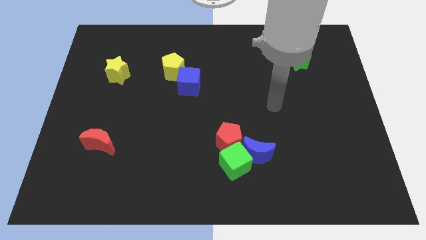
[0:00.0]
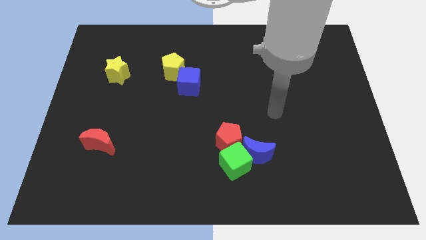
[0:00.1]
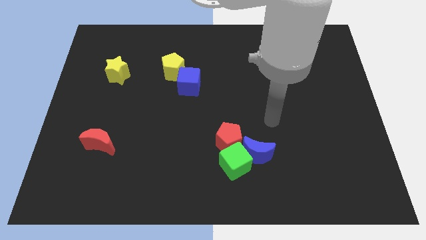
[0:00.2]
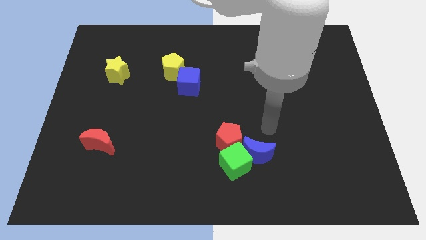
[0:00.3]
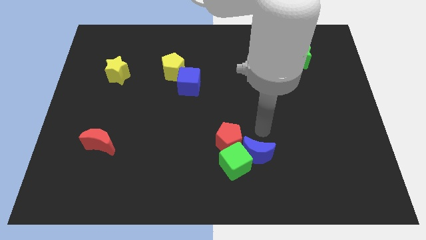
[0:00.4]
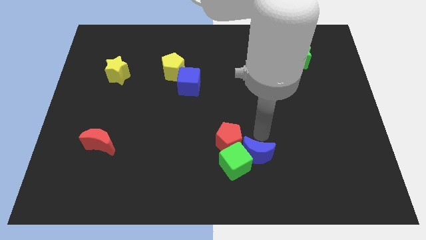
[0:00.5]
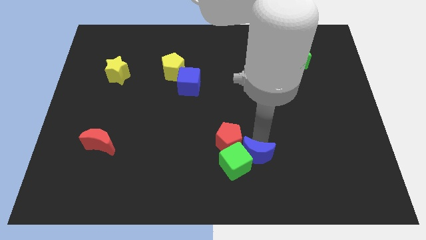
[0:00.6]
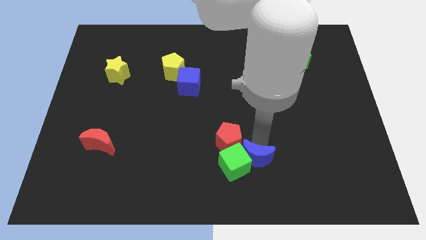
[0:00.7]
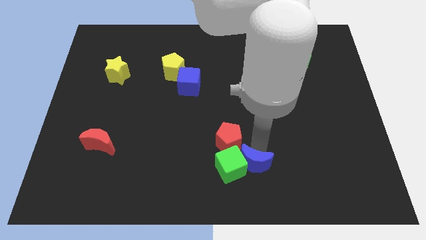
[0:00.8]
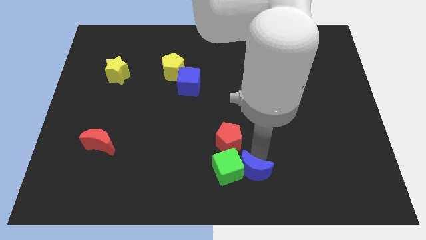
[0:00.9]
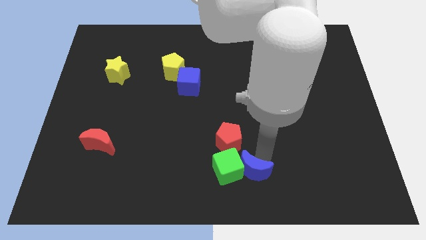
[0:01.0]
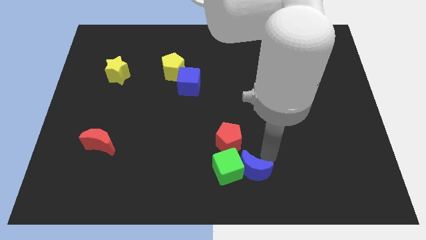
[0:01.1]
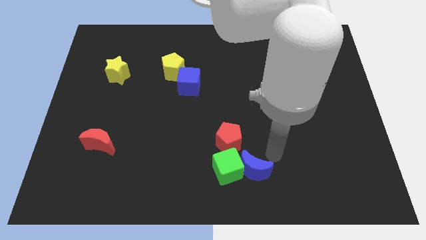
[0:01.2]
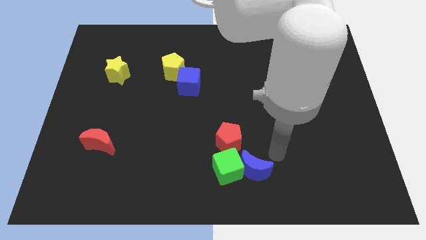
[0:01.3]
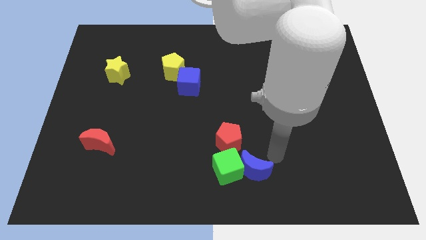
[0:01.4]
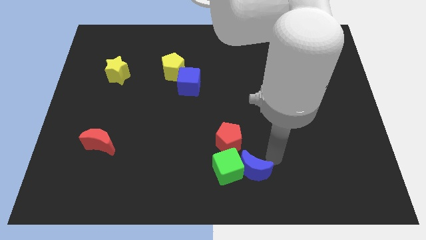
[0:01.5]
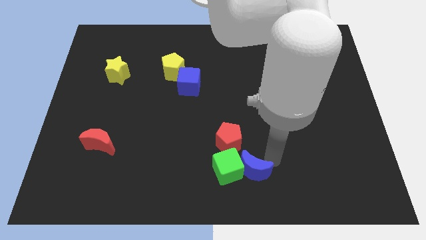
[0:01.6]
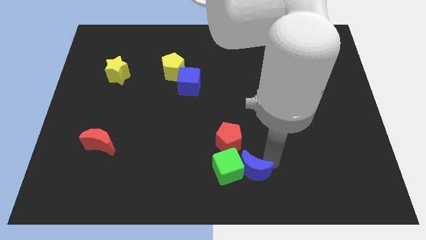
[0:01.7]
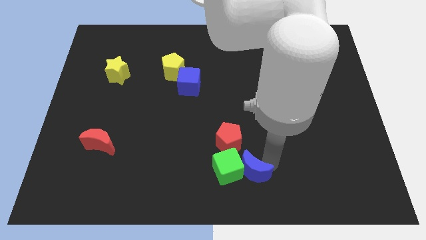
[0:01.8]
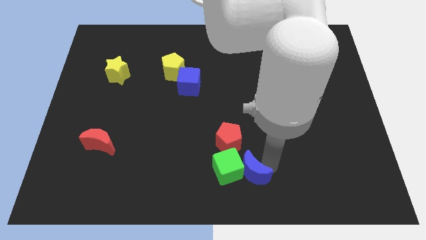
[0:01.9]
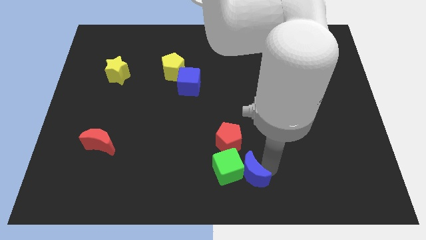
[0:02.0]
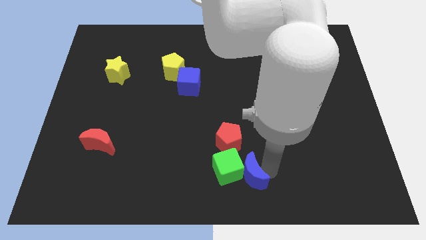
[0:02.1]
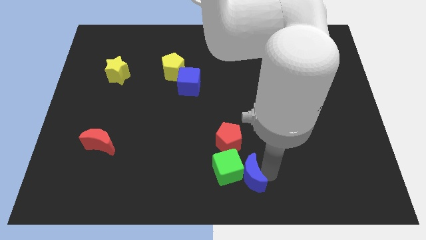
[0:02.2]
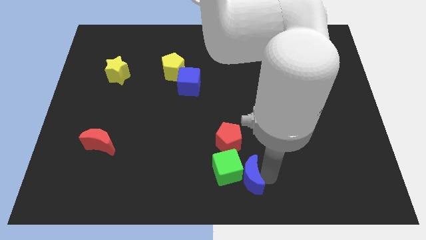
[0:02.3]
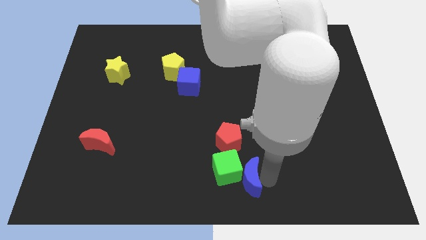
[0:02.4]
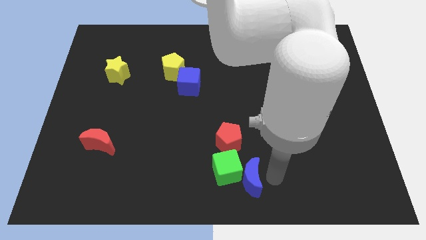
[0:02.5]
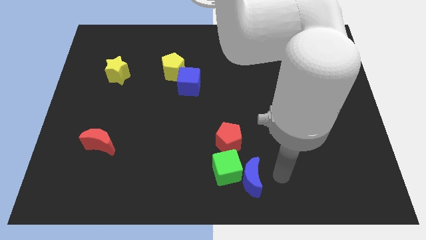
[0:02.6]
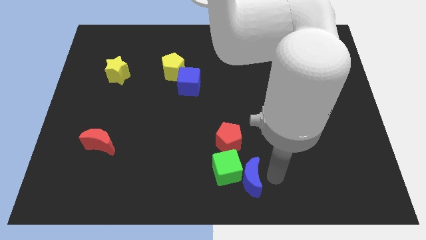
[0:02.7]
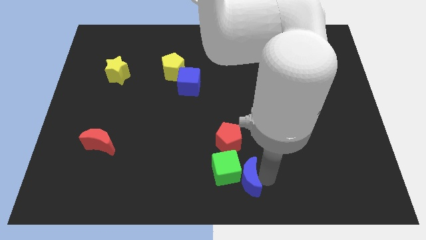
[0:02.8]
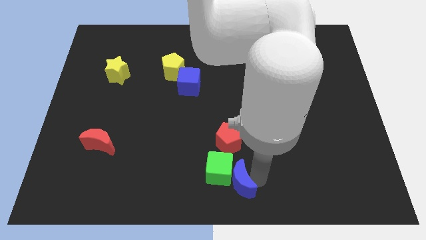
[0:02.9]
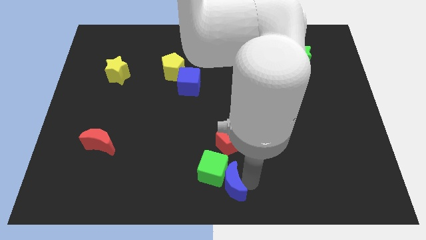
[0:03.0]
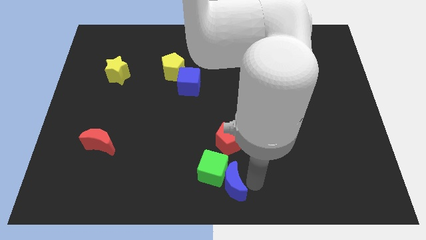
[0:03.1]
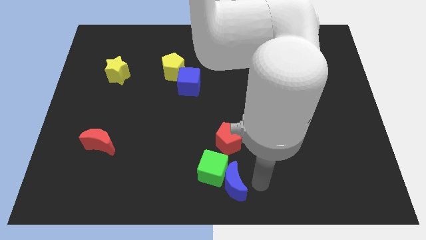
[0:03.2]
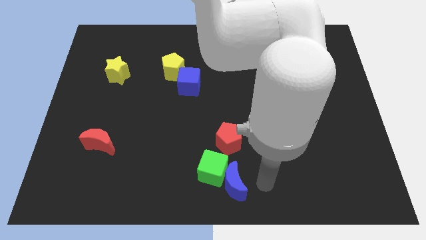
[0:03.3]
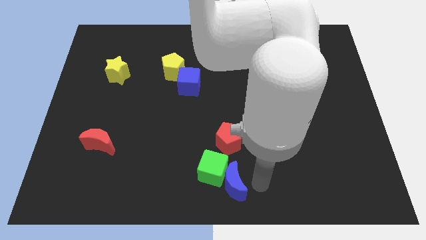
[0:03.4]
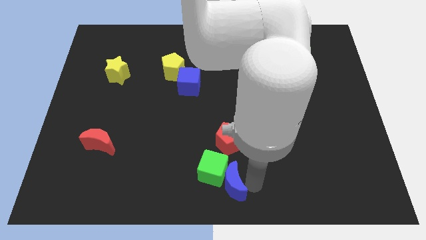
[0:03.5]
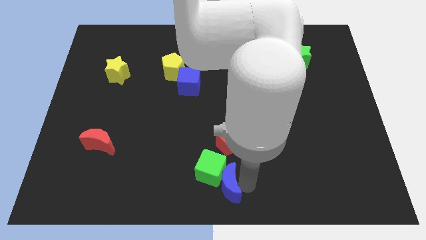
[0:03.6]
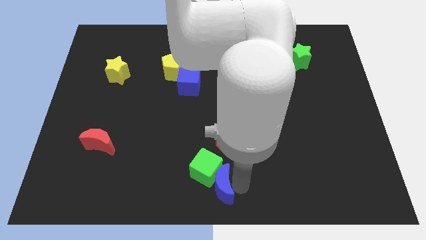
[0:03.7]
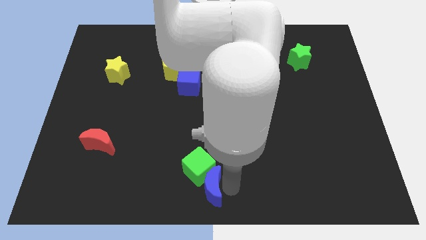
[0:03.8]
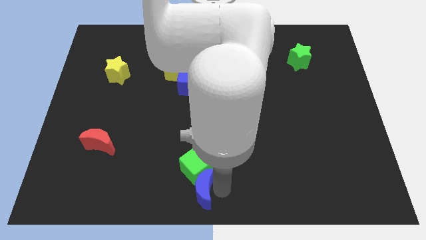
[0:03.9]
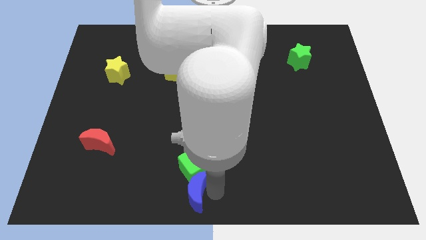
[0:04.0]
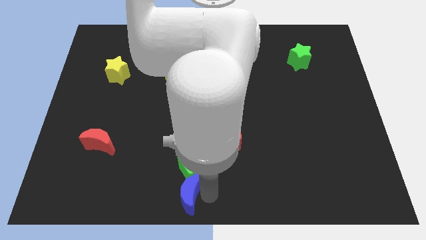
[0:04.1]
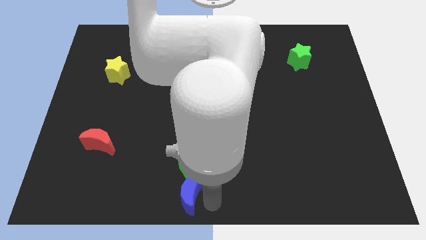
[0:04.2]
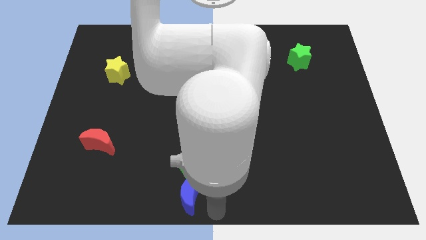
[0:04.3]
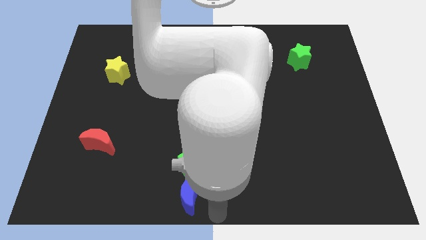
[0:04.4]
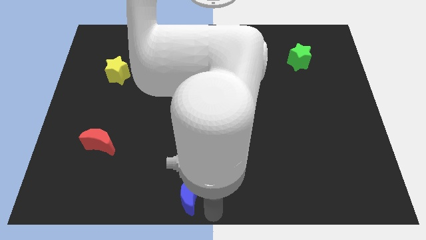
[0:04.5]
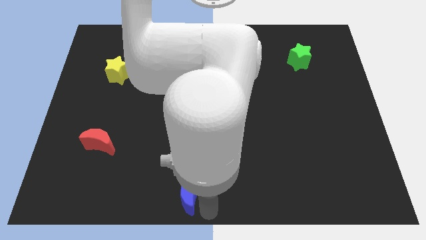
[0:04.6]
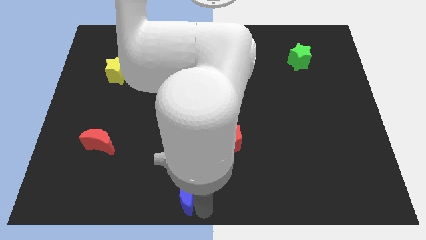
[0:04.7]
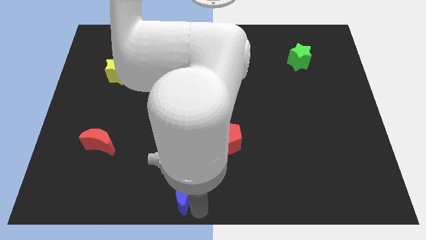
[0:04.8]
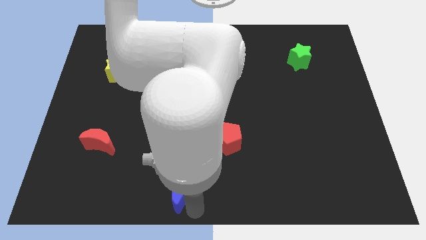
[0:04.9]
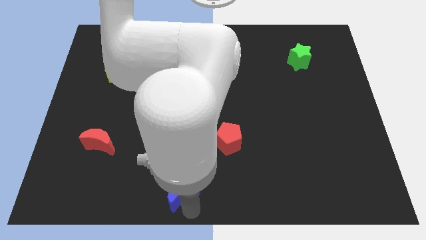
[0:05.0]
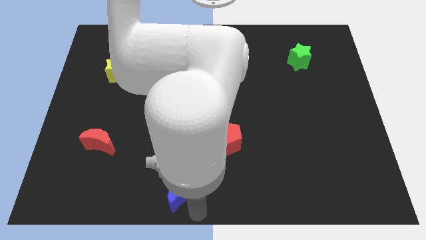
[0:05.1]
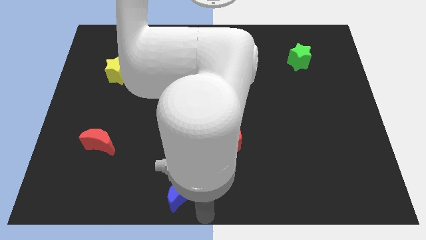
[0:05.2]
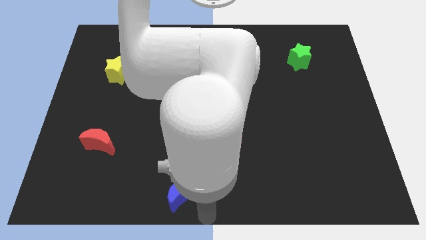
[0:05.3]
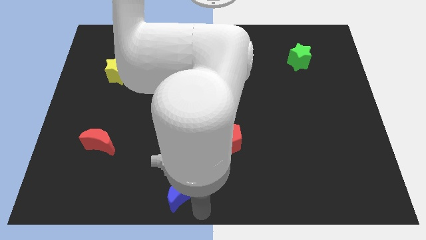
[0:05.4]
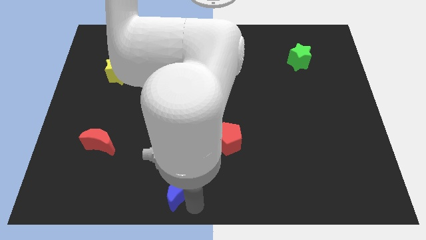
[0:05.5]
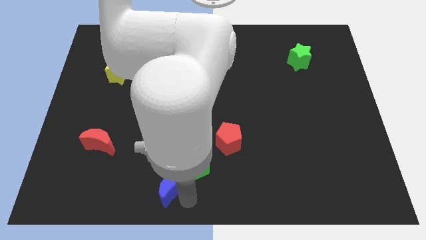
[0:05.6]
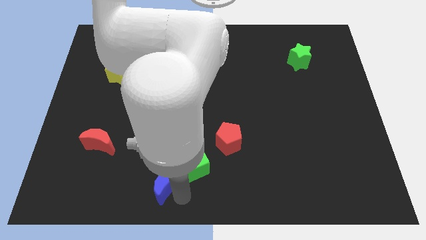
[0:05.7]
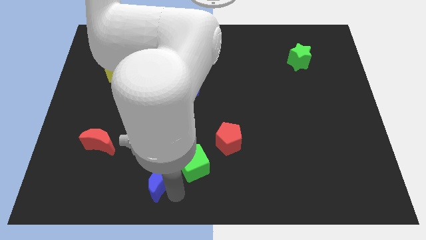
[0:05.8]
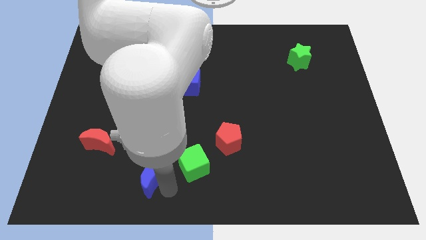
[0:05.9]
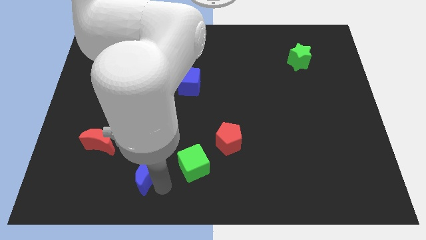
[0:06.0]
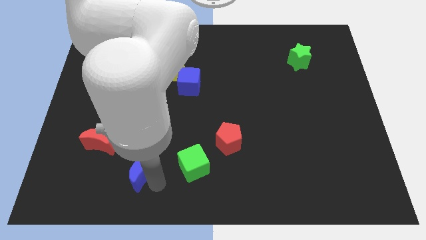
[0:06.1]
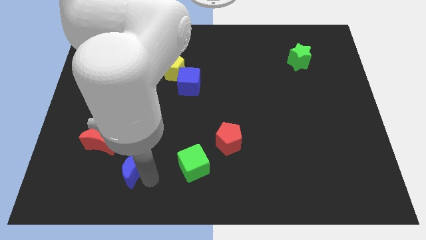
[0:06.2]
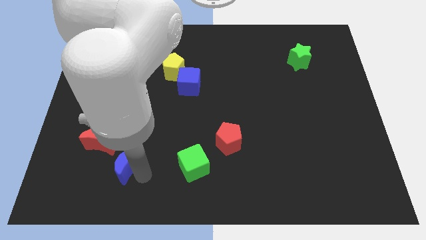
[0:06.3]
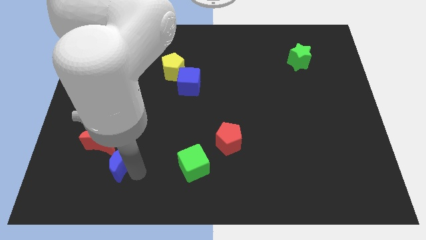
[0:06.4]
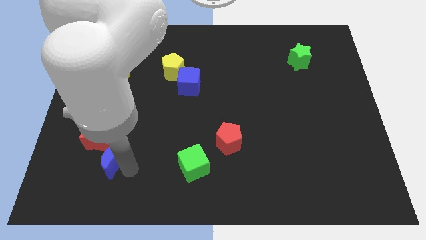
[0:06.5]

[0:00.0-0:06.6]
move the blue moon next to the red moon

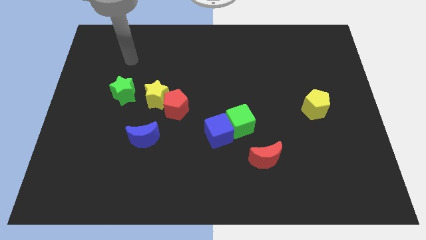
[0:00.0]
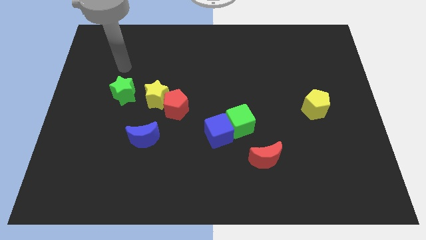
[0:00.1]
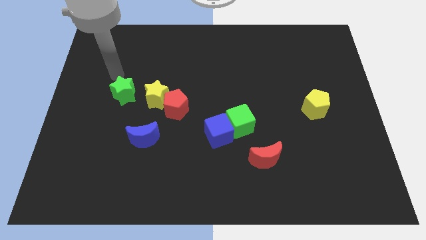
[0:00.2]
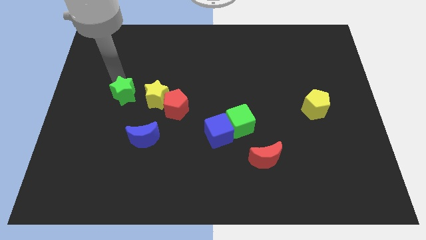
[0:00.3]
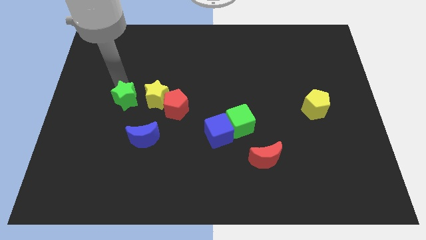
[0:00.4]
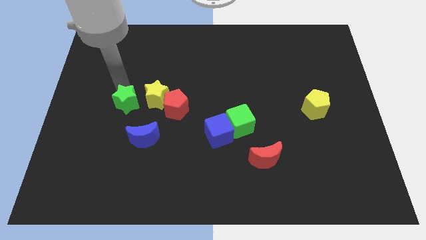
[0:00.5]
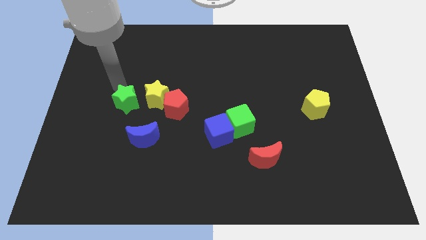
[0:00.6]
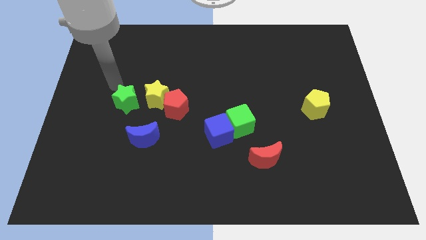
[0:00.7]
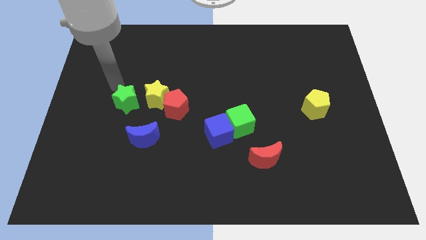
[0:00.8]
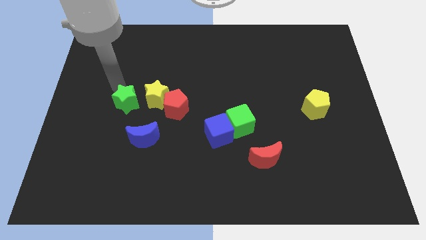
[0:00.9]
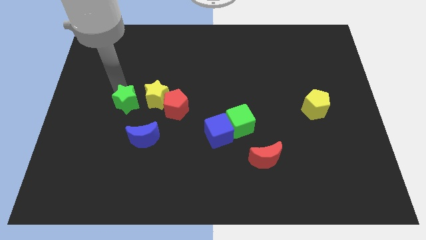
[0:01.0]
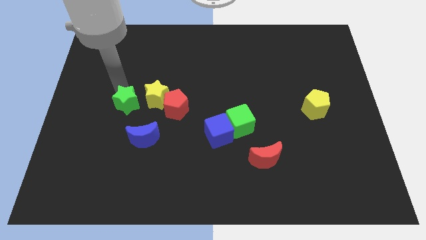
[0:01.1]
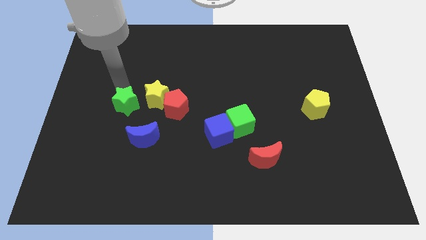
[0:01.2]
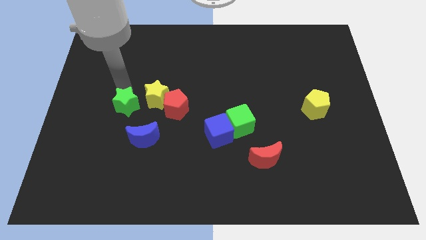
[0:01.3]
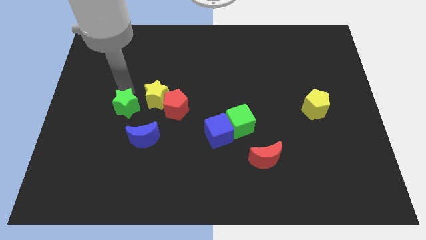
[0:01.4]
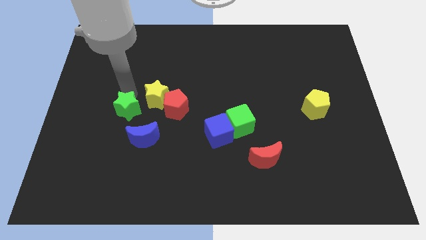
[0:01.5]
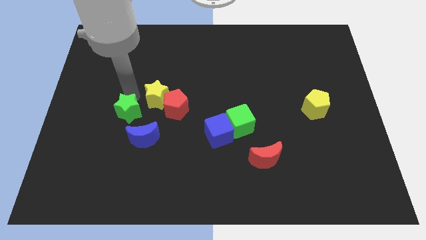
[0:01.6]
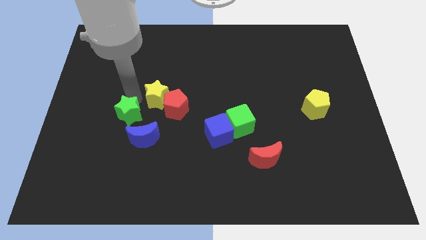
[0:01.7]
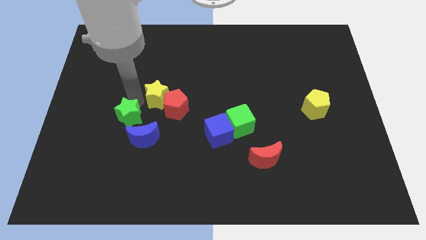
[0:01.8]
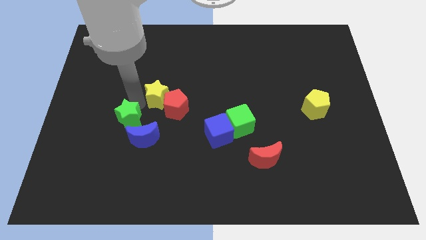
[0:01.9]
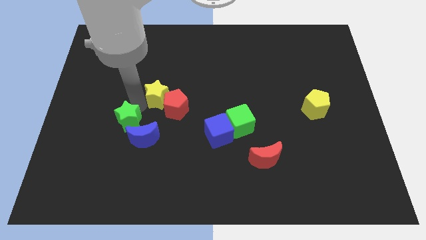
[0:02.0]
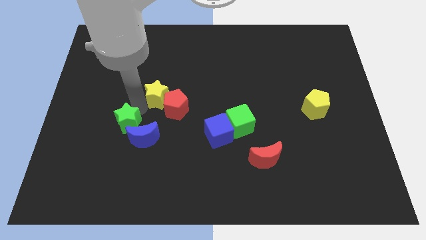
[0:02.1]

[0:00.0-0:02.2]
move the green star to the blue moon
